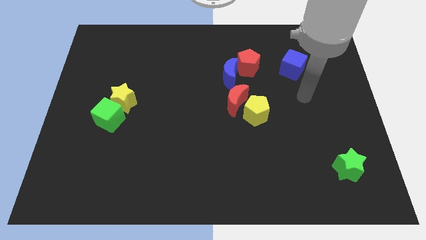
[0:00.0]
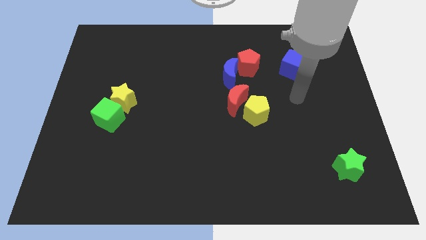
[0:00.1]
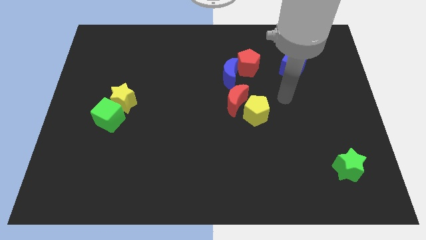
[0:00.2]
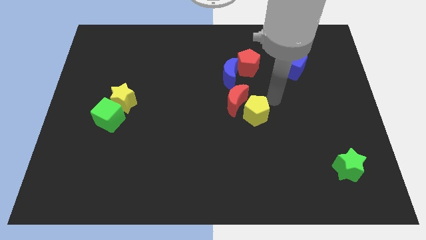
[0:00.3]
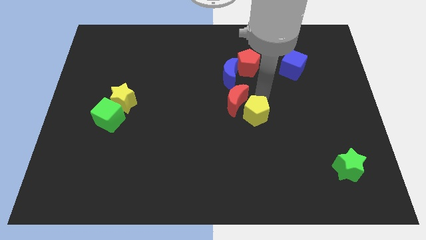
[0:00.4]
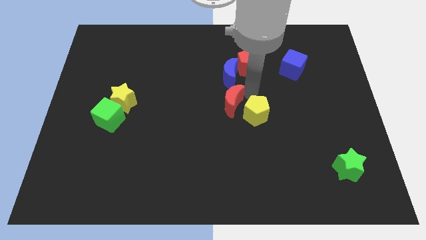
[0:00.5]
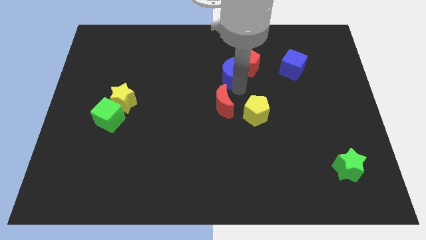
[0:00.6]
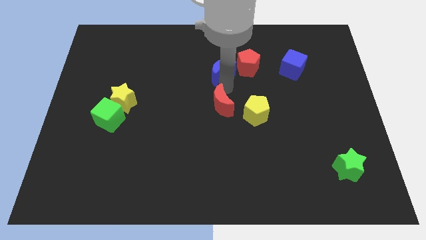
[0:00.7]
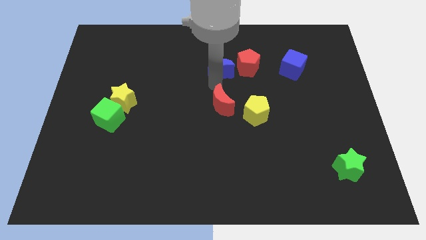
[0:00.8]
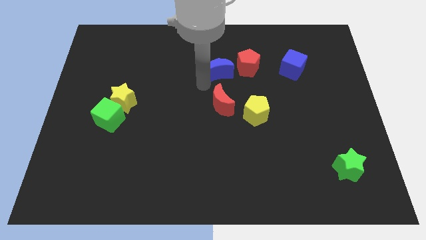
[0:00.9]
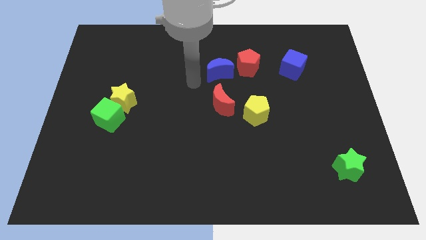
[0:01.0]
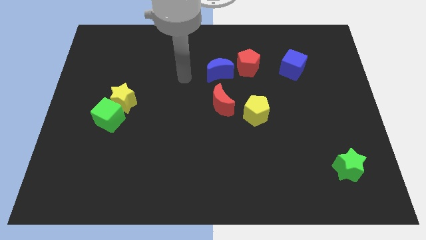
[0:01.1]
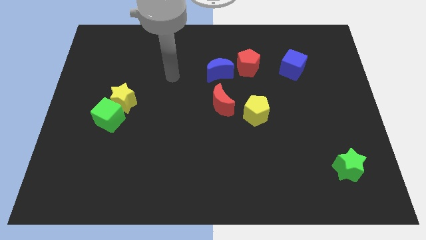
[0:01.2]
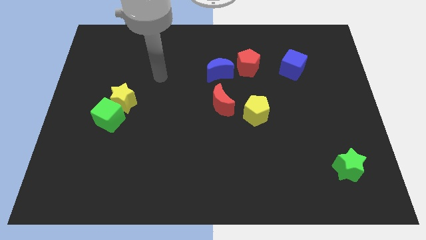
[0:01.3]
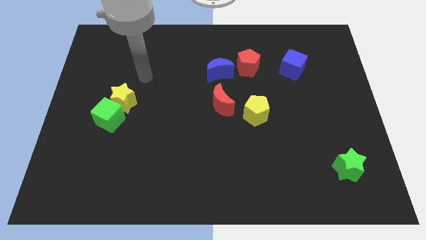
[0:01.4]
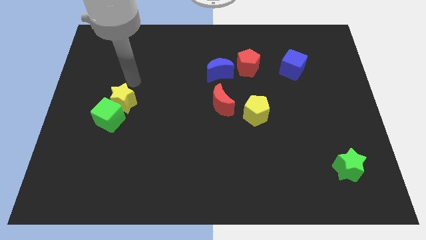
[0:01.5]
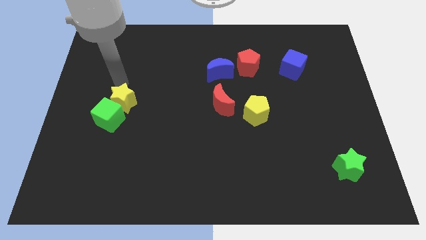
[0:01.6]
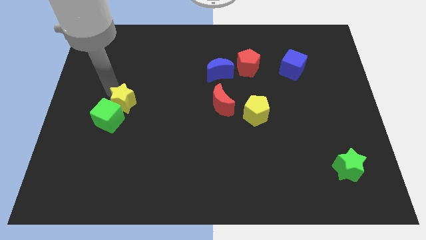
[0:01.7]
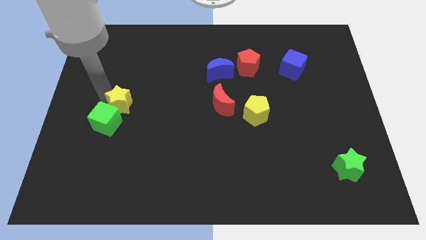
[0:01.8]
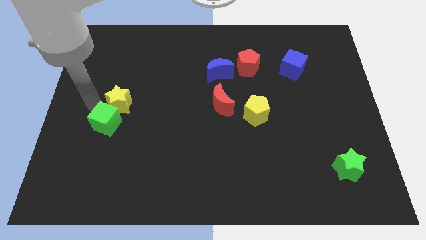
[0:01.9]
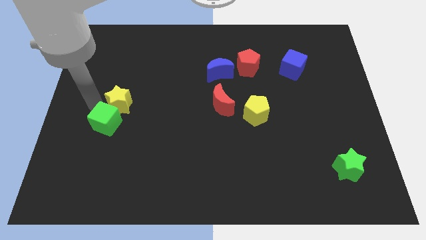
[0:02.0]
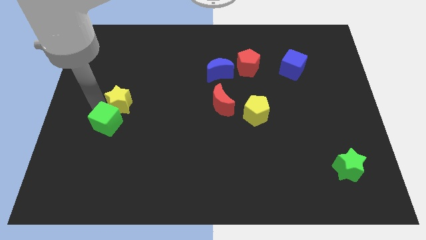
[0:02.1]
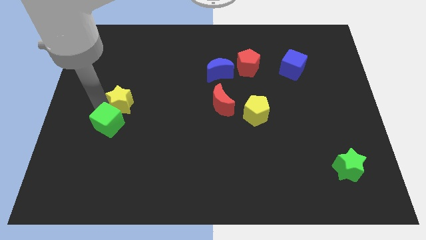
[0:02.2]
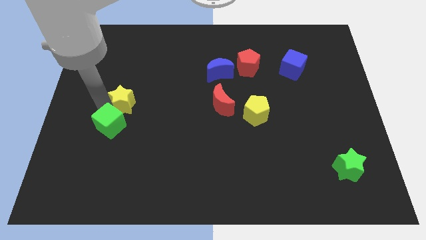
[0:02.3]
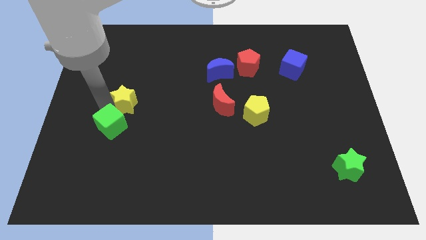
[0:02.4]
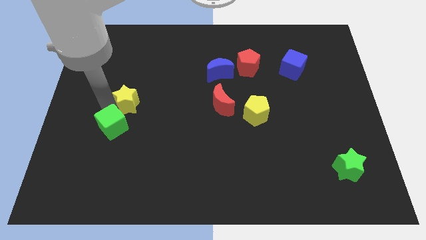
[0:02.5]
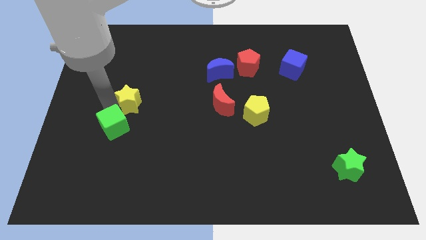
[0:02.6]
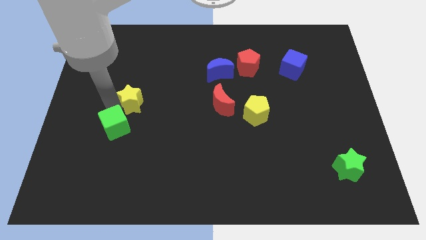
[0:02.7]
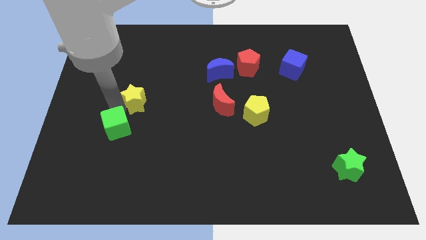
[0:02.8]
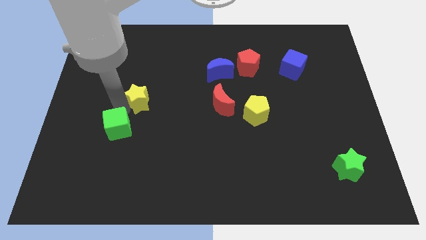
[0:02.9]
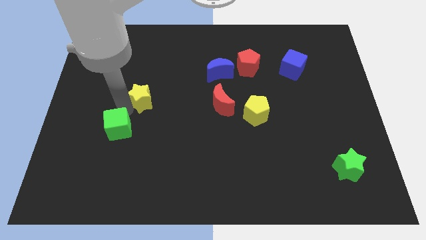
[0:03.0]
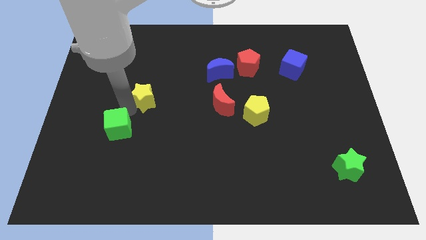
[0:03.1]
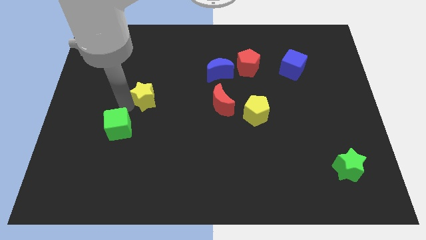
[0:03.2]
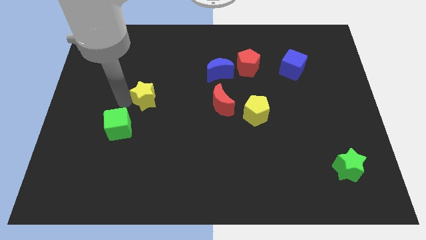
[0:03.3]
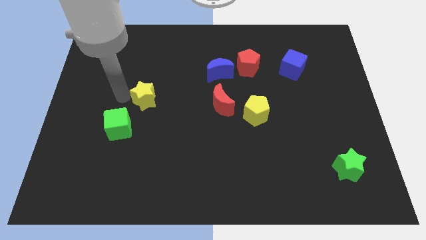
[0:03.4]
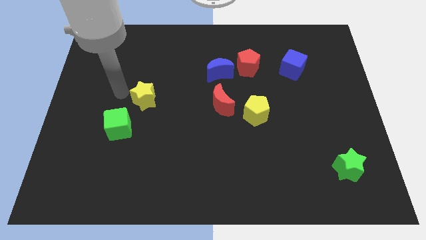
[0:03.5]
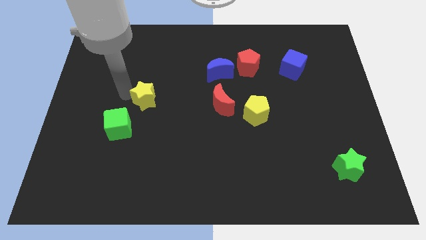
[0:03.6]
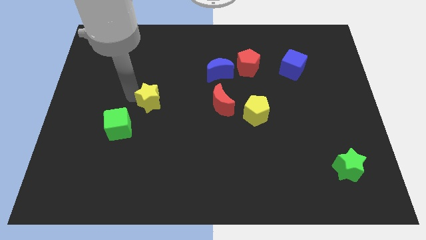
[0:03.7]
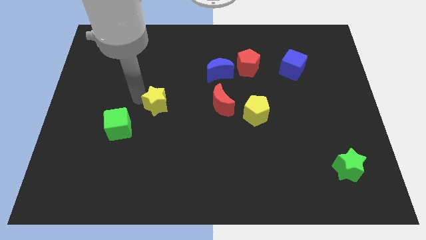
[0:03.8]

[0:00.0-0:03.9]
move the yellow star to the right a little bit

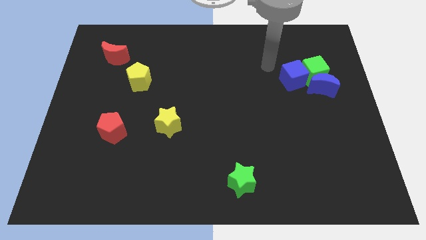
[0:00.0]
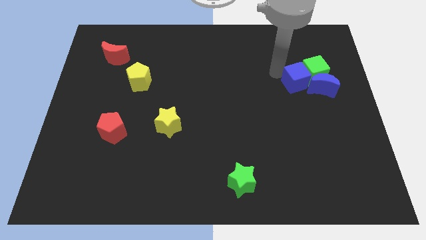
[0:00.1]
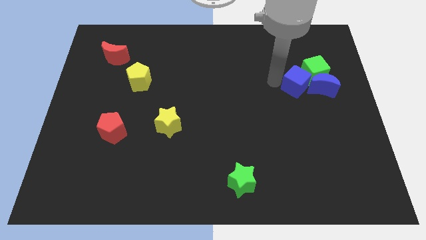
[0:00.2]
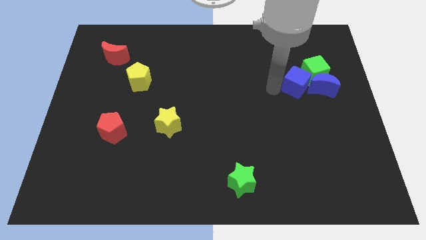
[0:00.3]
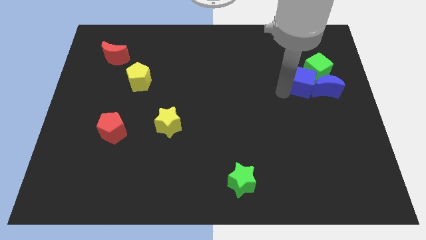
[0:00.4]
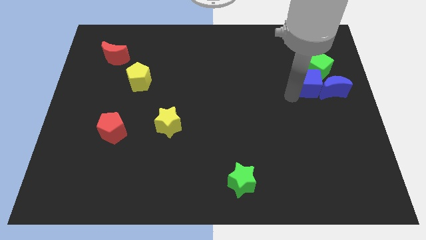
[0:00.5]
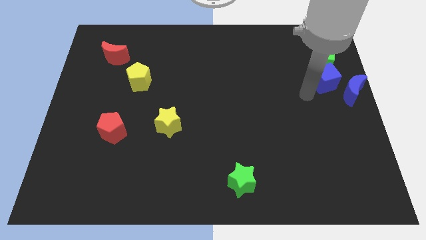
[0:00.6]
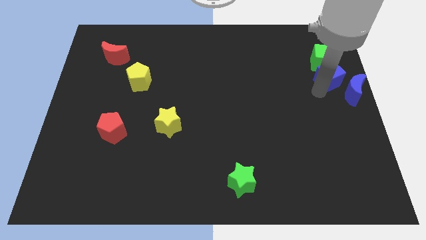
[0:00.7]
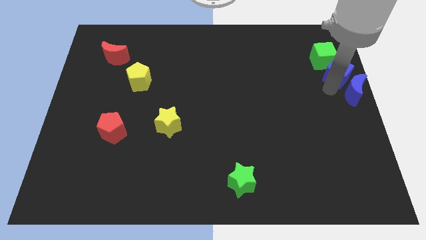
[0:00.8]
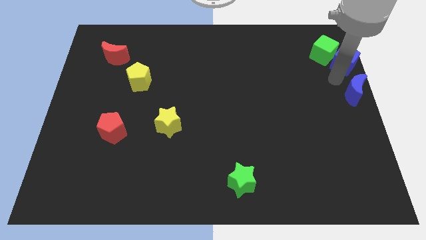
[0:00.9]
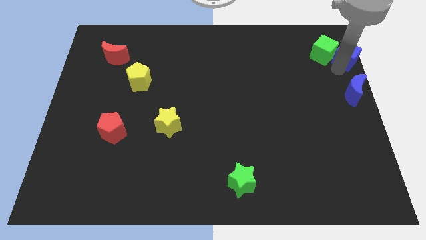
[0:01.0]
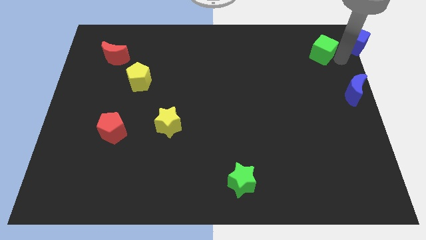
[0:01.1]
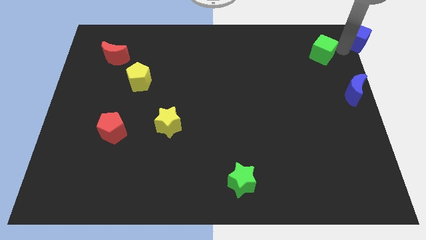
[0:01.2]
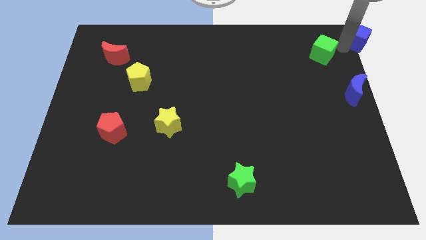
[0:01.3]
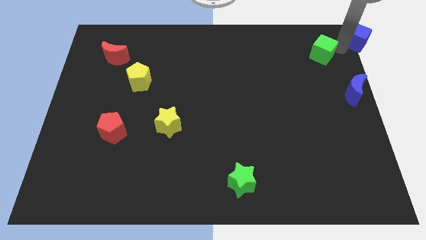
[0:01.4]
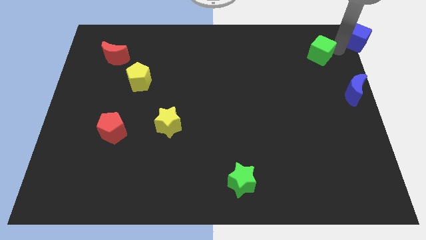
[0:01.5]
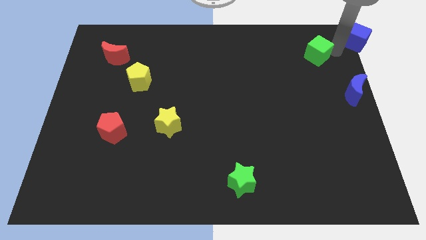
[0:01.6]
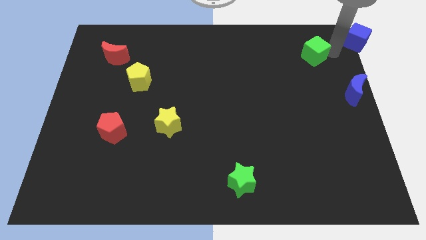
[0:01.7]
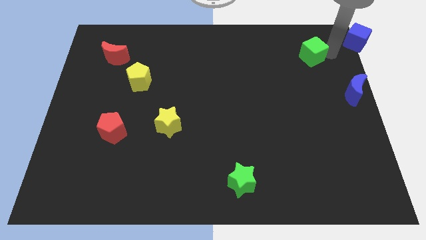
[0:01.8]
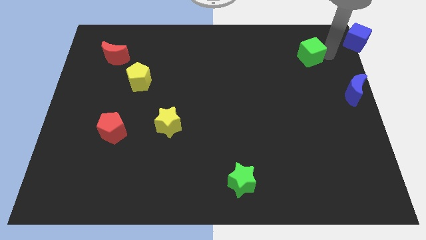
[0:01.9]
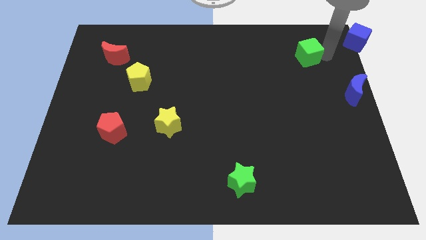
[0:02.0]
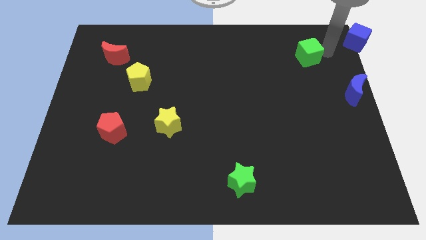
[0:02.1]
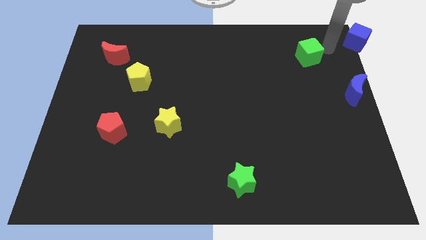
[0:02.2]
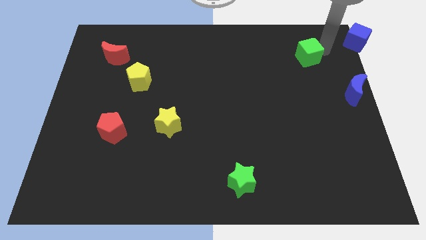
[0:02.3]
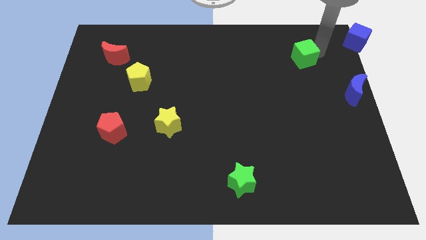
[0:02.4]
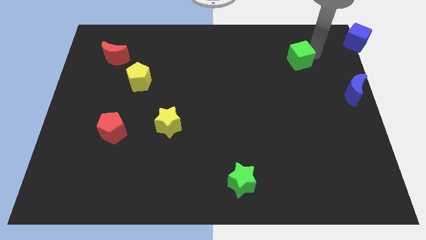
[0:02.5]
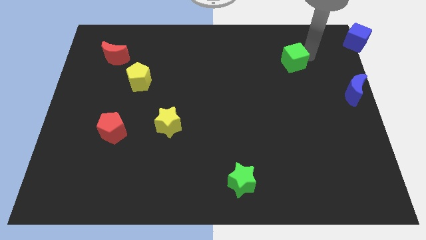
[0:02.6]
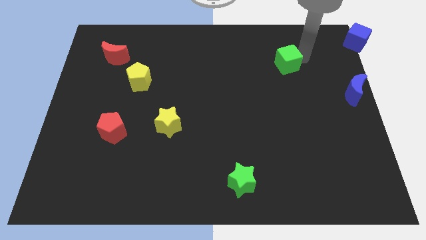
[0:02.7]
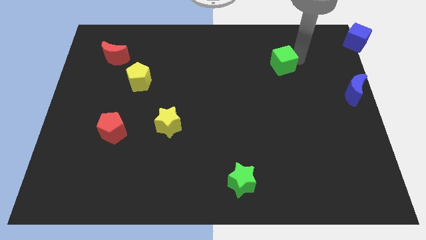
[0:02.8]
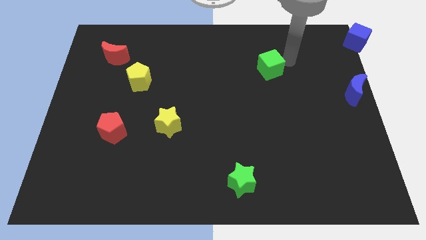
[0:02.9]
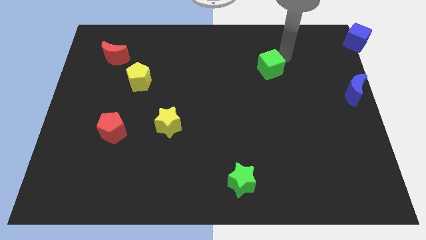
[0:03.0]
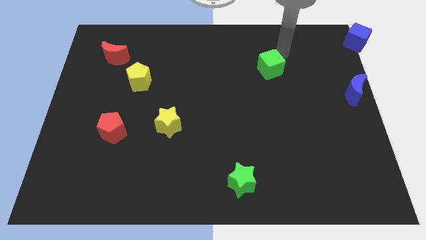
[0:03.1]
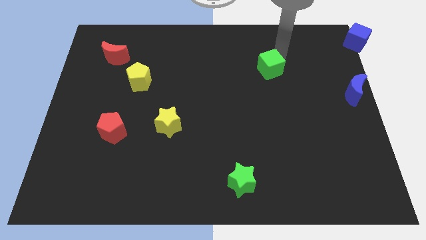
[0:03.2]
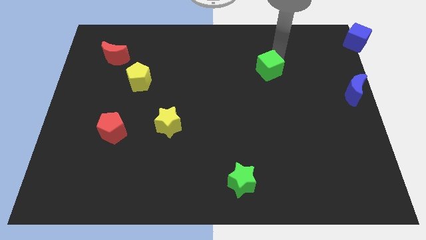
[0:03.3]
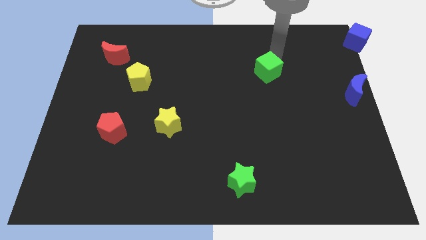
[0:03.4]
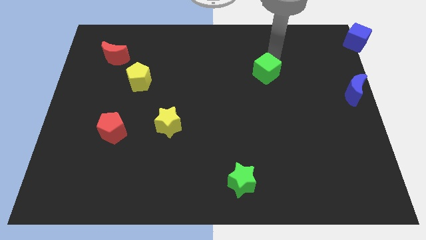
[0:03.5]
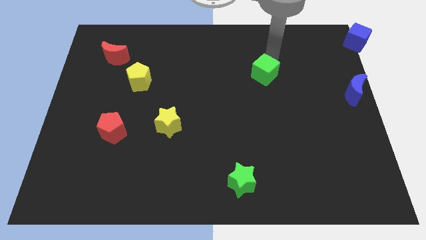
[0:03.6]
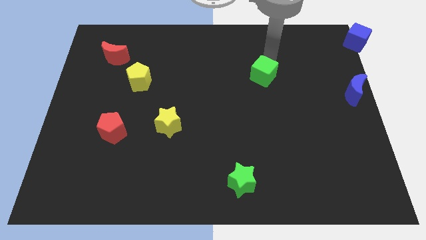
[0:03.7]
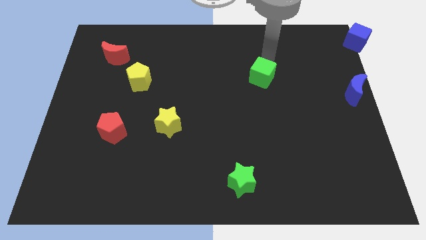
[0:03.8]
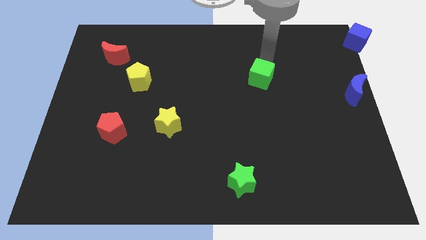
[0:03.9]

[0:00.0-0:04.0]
push the green cube diagonally down and to the left a bit
